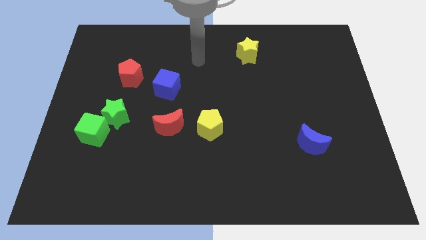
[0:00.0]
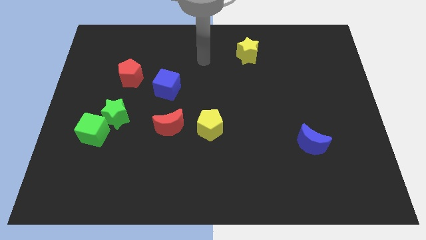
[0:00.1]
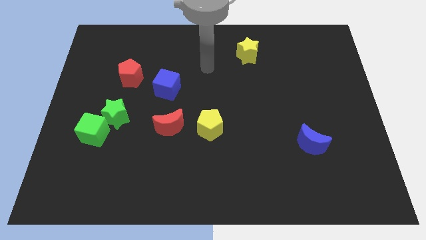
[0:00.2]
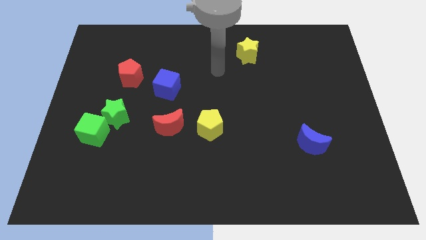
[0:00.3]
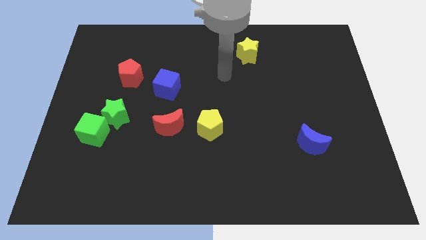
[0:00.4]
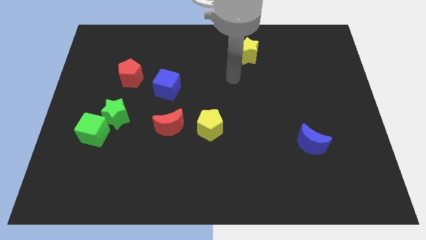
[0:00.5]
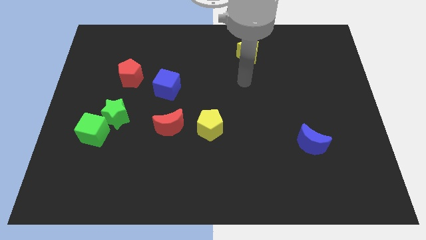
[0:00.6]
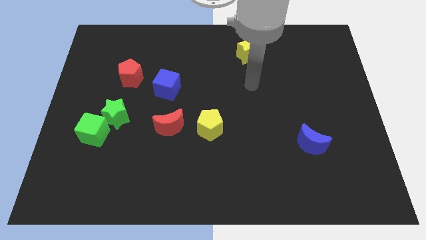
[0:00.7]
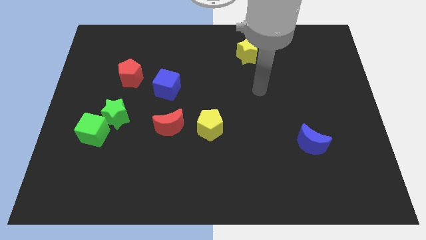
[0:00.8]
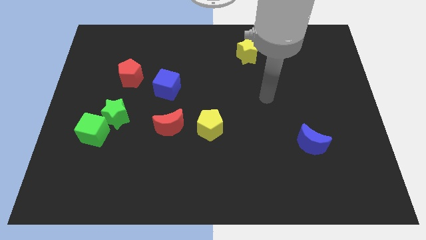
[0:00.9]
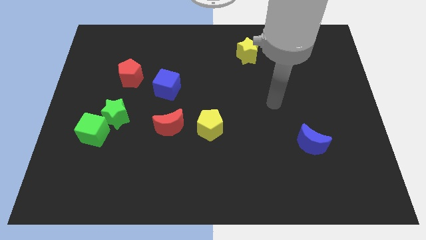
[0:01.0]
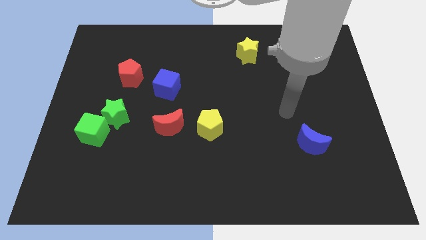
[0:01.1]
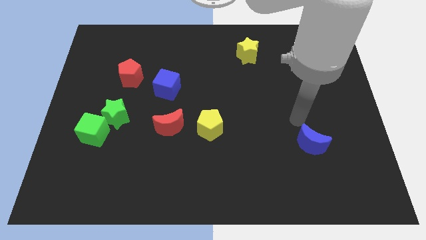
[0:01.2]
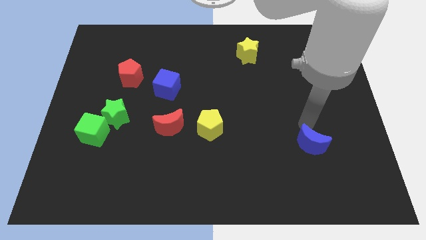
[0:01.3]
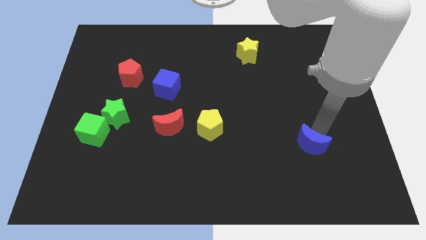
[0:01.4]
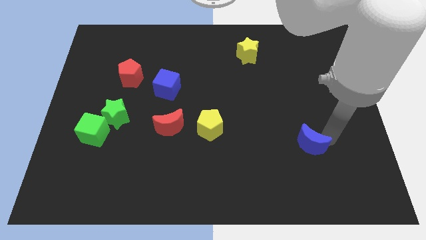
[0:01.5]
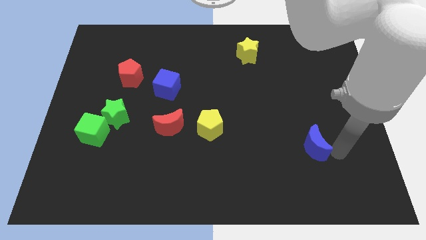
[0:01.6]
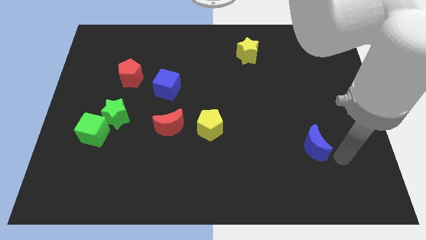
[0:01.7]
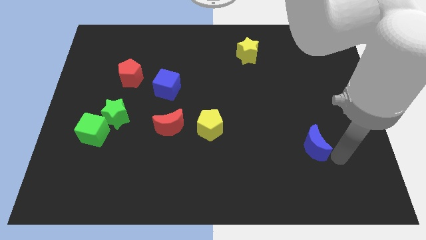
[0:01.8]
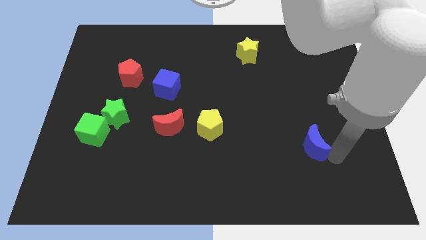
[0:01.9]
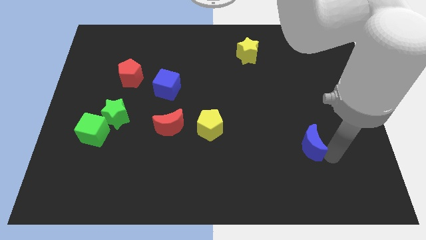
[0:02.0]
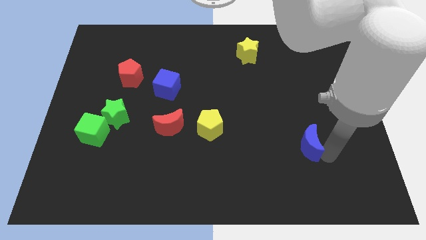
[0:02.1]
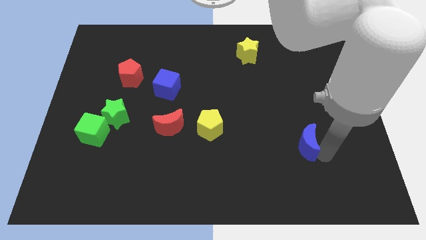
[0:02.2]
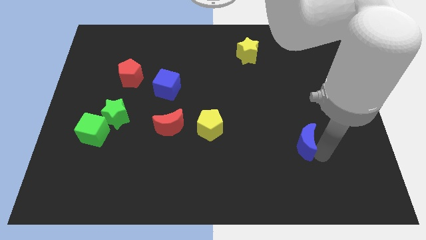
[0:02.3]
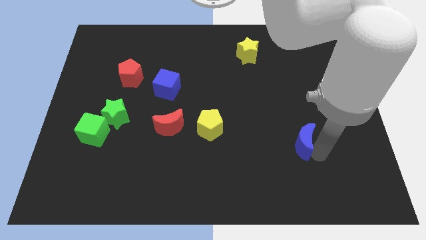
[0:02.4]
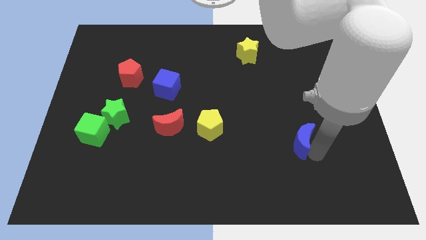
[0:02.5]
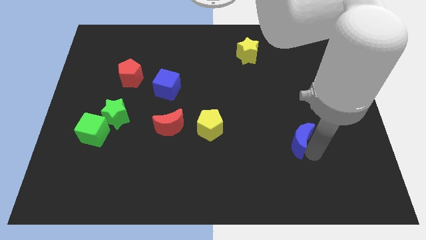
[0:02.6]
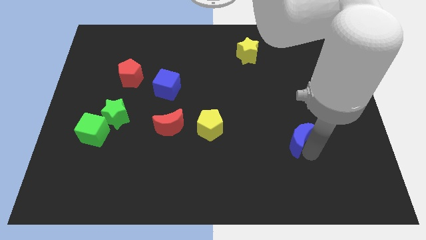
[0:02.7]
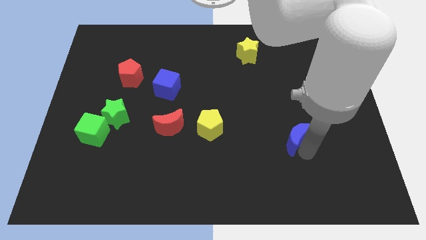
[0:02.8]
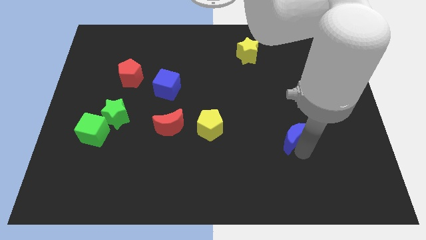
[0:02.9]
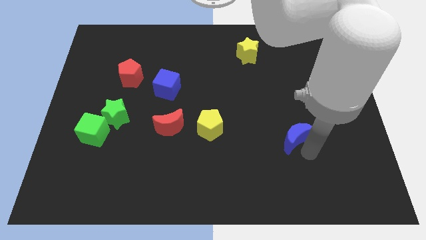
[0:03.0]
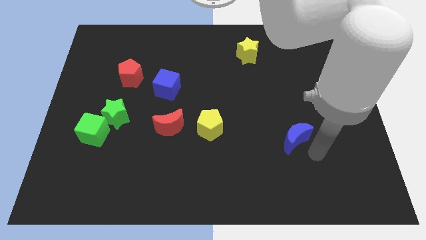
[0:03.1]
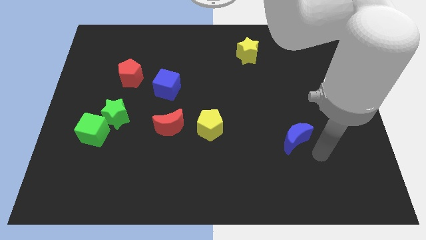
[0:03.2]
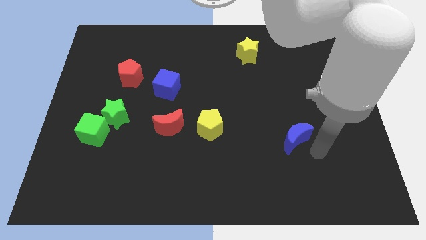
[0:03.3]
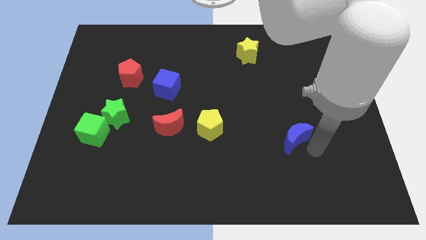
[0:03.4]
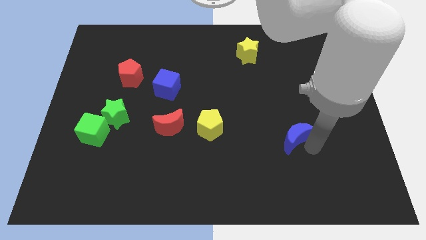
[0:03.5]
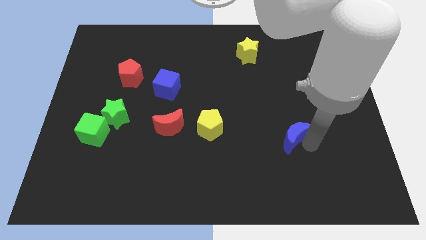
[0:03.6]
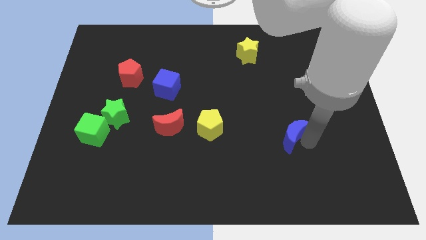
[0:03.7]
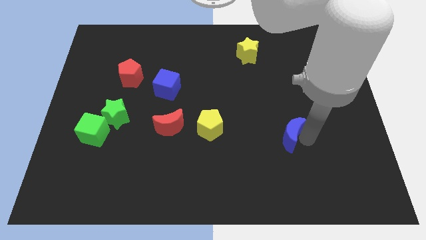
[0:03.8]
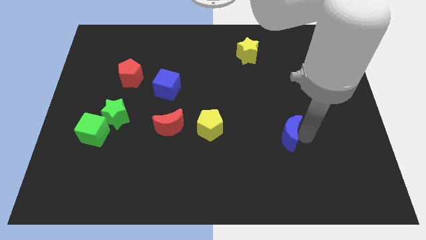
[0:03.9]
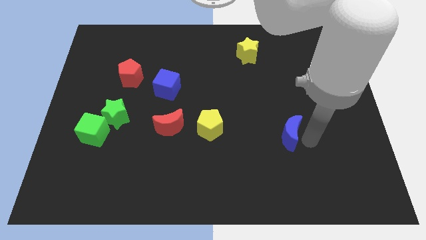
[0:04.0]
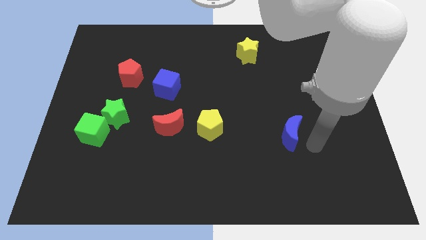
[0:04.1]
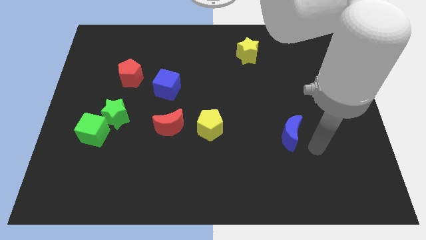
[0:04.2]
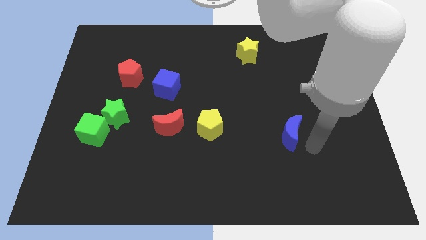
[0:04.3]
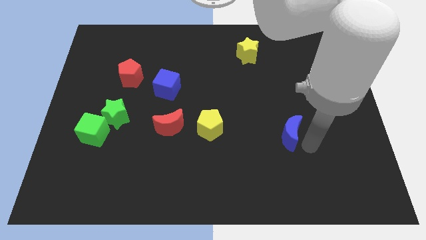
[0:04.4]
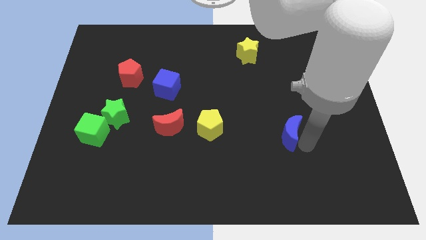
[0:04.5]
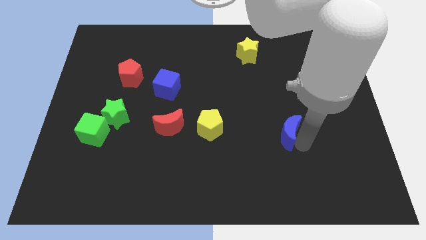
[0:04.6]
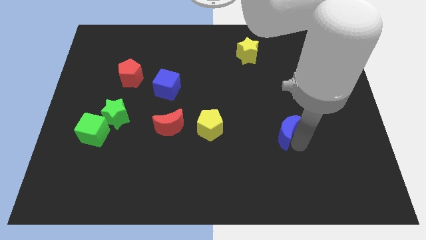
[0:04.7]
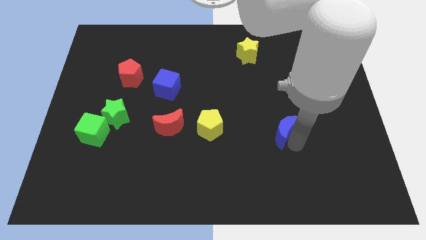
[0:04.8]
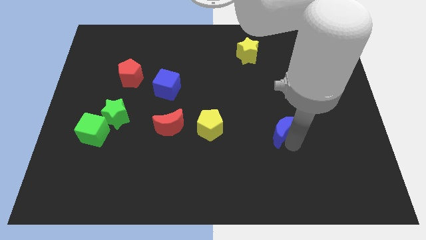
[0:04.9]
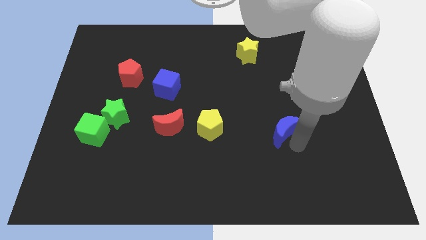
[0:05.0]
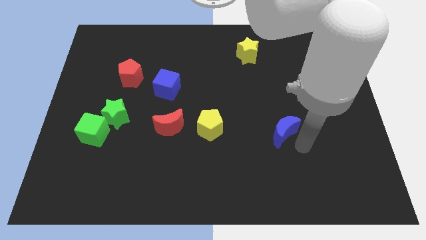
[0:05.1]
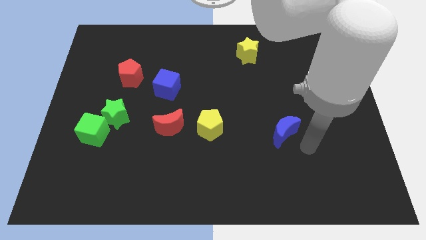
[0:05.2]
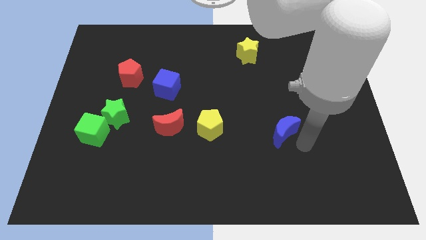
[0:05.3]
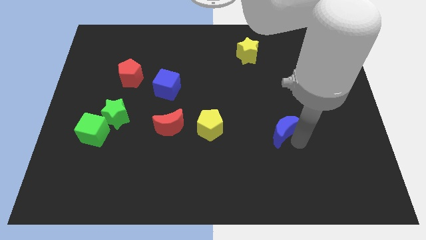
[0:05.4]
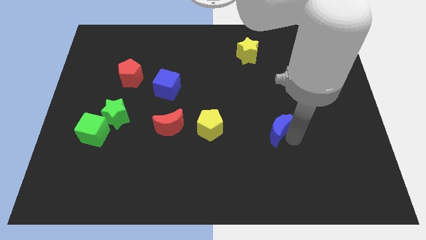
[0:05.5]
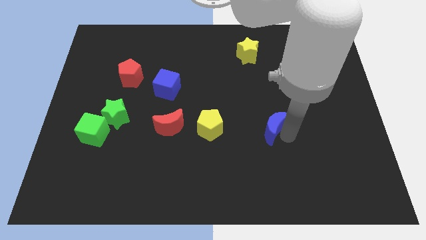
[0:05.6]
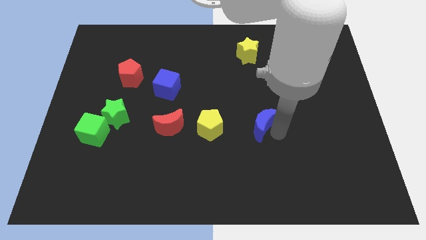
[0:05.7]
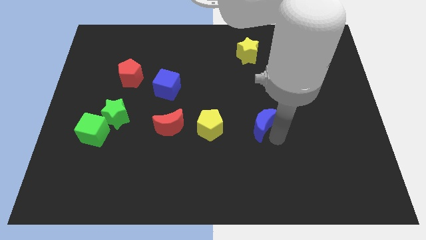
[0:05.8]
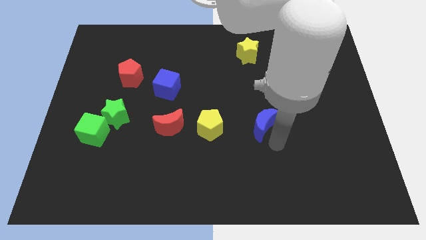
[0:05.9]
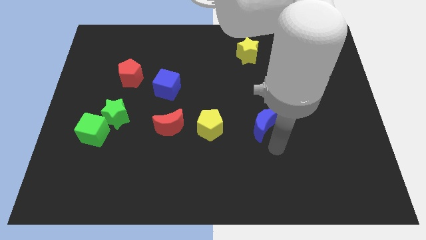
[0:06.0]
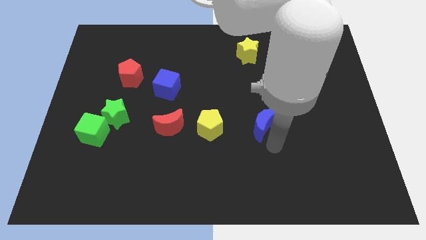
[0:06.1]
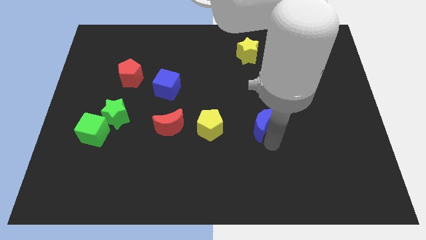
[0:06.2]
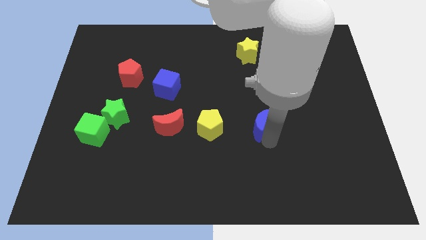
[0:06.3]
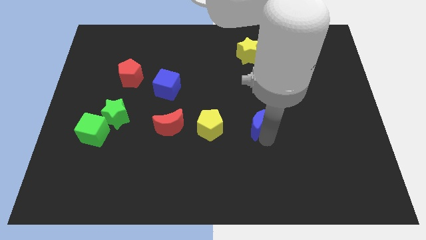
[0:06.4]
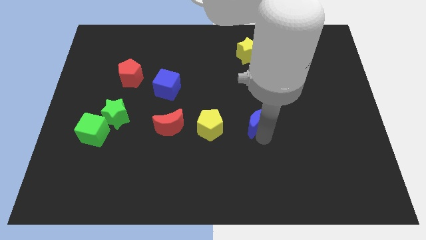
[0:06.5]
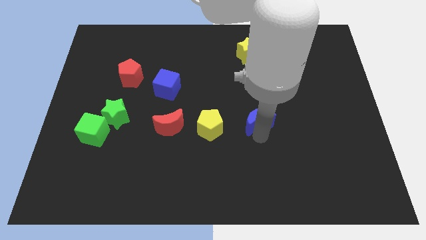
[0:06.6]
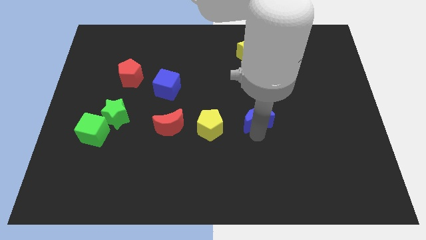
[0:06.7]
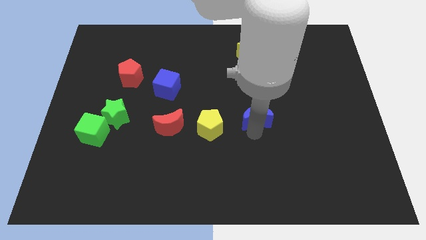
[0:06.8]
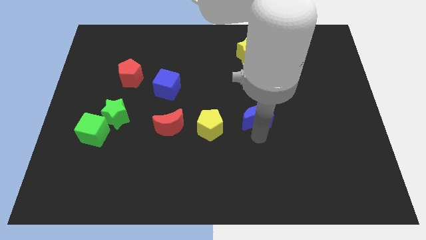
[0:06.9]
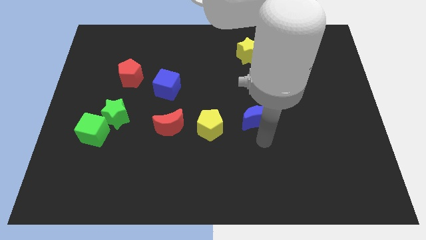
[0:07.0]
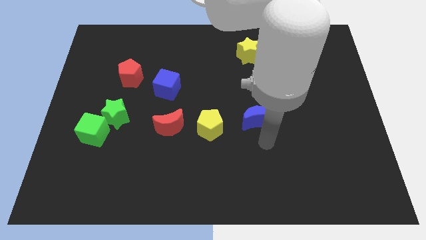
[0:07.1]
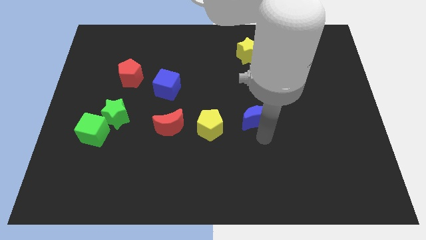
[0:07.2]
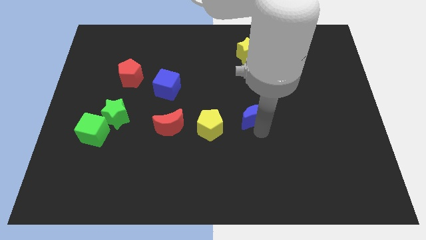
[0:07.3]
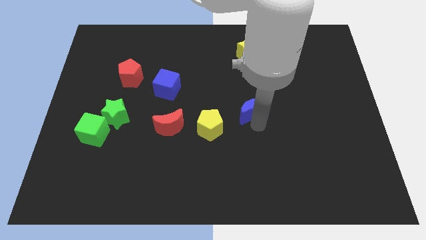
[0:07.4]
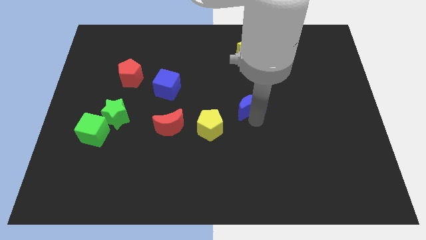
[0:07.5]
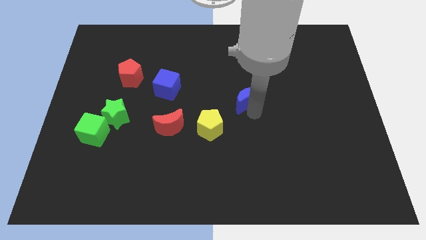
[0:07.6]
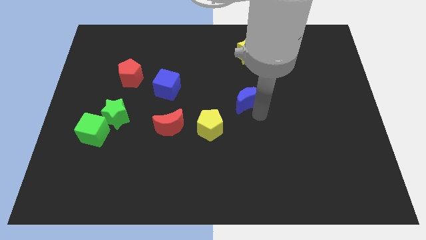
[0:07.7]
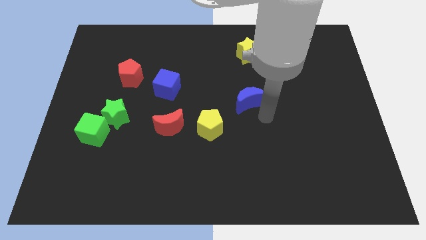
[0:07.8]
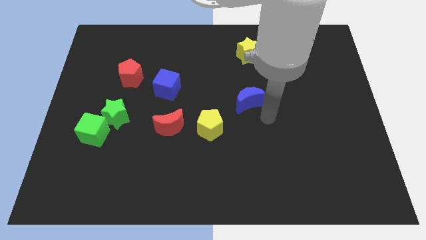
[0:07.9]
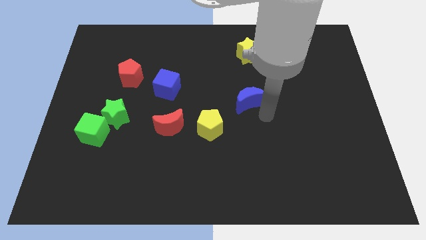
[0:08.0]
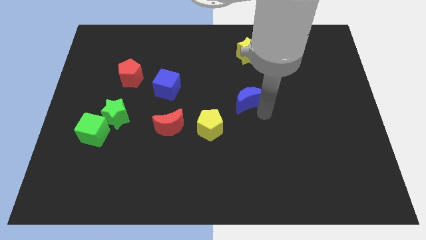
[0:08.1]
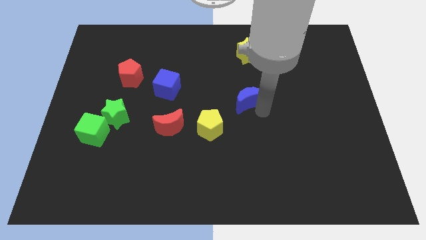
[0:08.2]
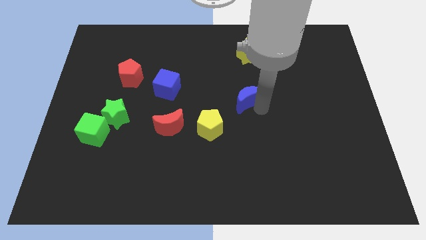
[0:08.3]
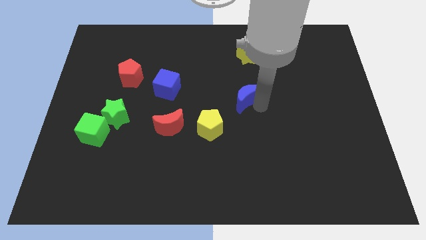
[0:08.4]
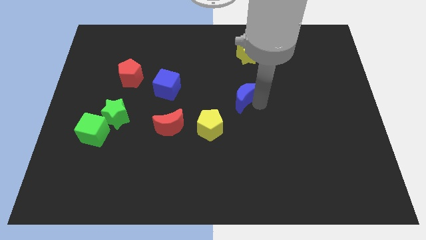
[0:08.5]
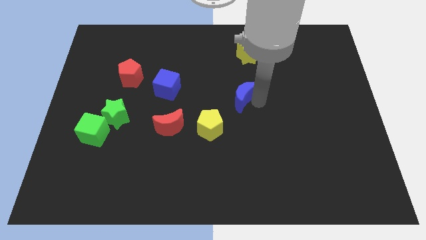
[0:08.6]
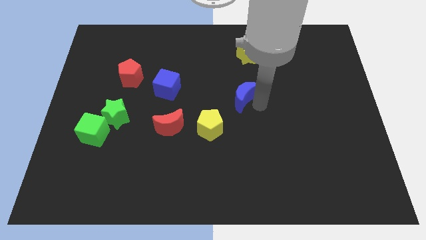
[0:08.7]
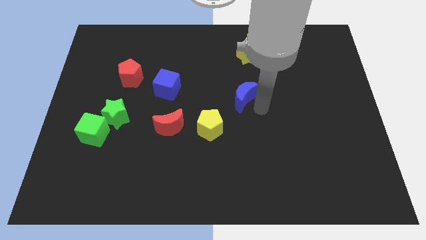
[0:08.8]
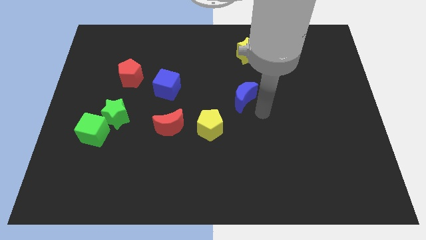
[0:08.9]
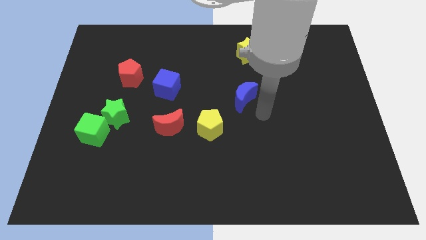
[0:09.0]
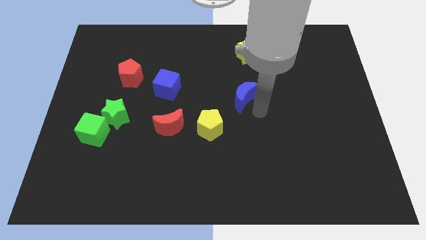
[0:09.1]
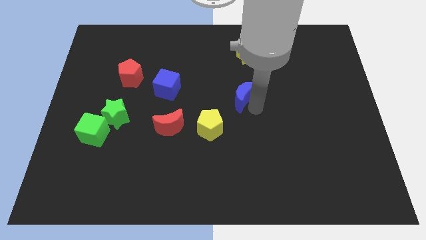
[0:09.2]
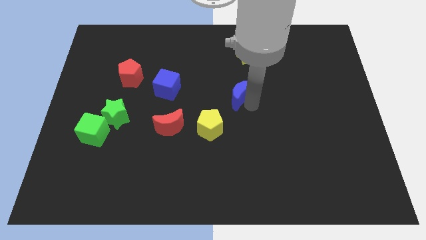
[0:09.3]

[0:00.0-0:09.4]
slide the blue moon diagonally upwards and to the left
